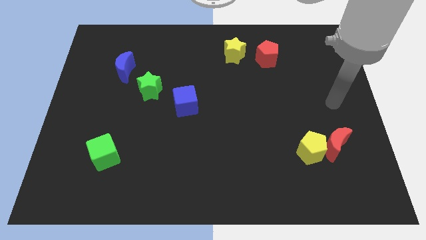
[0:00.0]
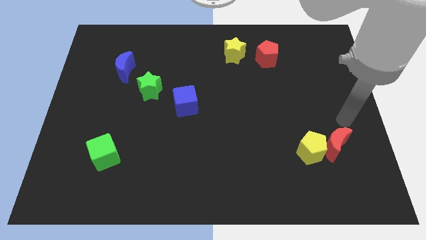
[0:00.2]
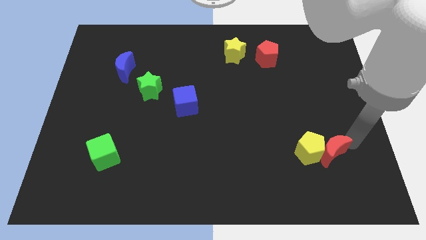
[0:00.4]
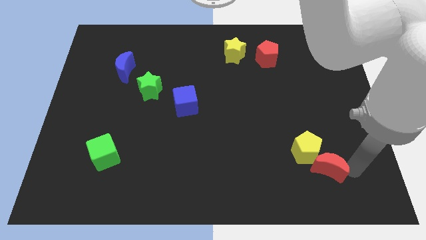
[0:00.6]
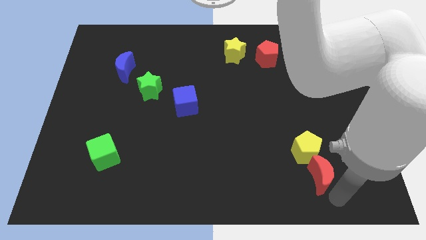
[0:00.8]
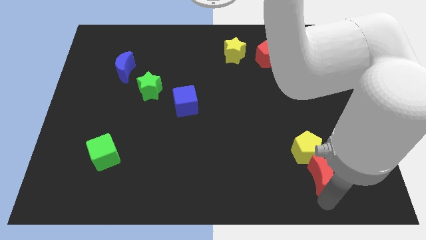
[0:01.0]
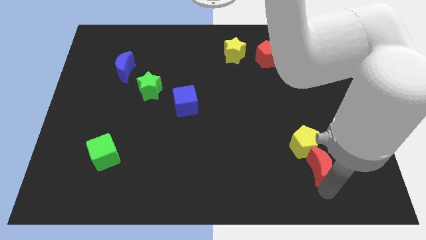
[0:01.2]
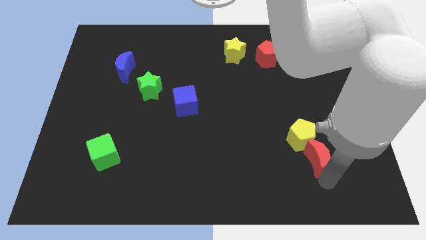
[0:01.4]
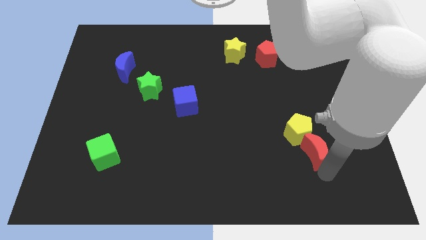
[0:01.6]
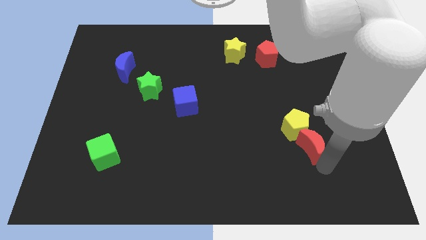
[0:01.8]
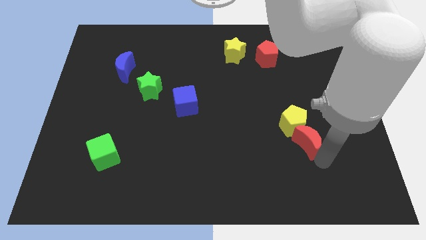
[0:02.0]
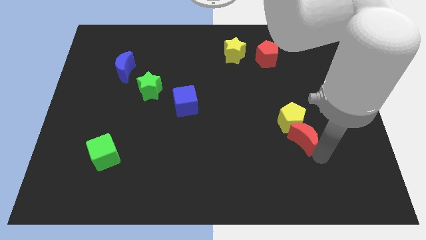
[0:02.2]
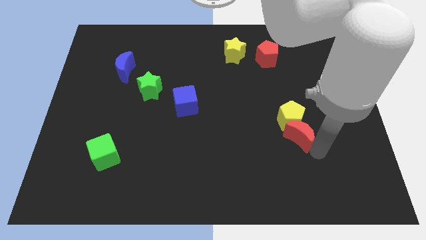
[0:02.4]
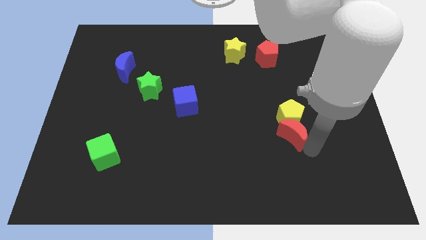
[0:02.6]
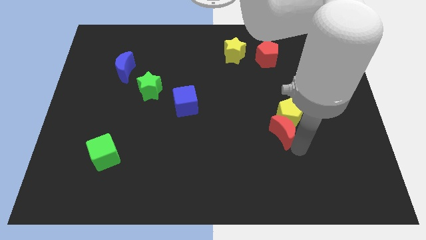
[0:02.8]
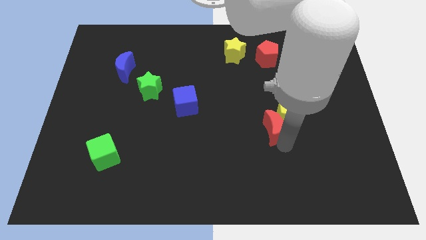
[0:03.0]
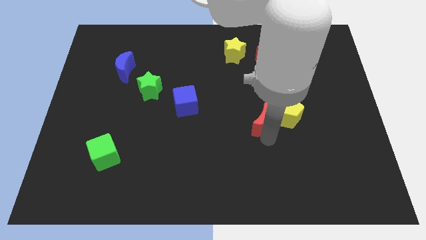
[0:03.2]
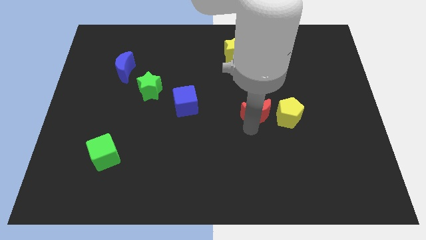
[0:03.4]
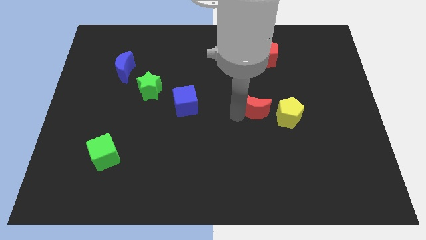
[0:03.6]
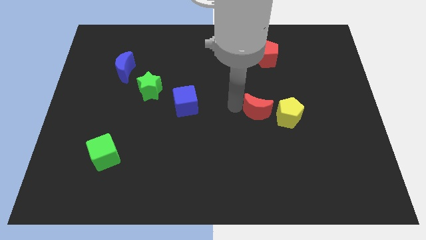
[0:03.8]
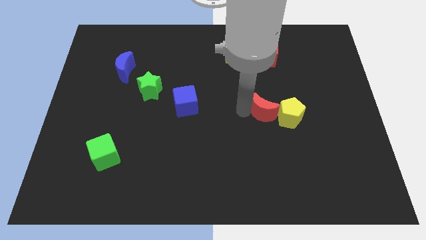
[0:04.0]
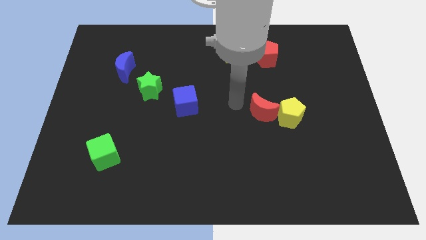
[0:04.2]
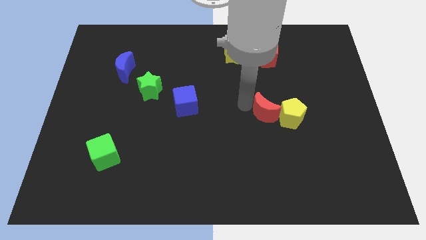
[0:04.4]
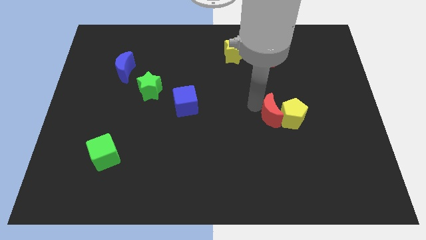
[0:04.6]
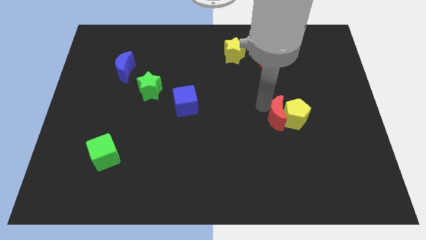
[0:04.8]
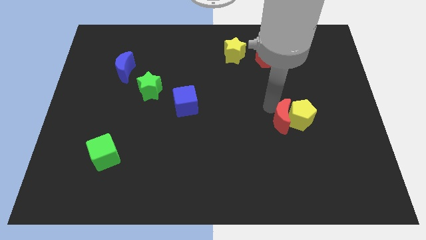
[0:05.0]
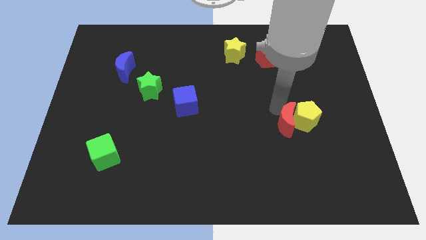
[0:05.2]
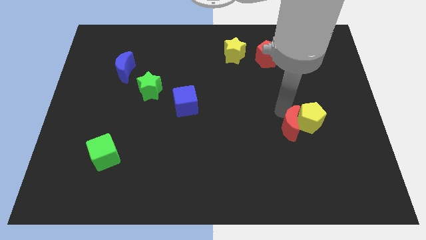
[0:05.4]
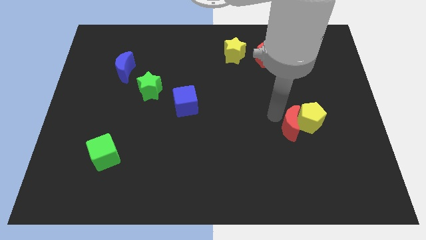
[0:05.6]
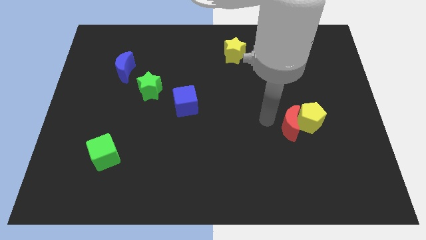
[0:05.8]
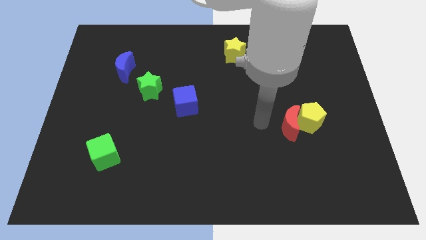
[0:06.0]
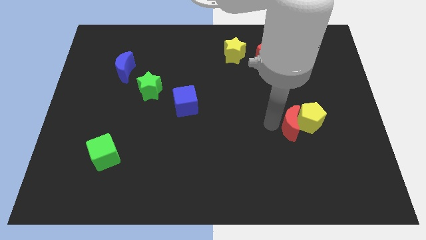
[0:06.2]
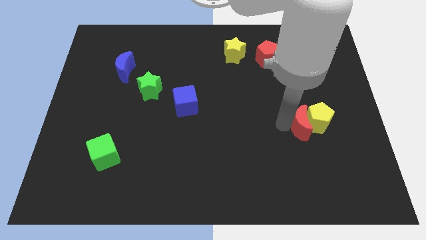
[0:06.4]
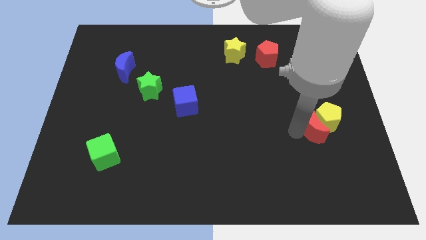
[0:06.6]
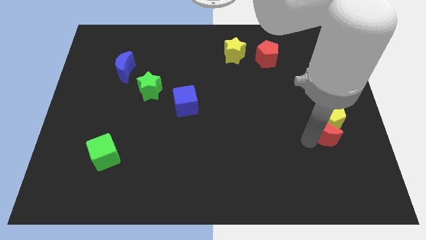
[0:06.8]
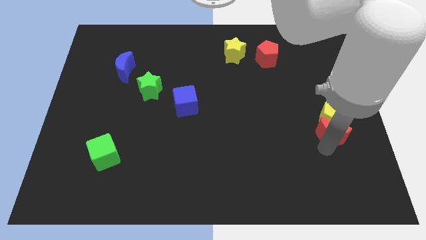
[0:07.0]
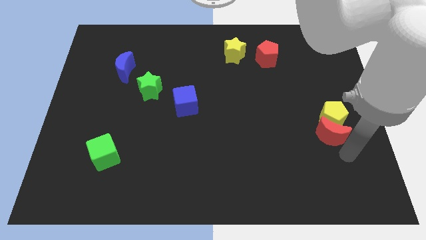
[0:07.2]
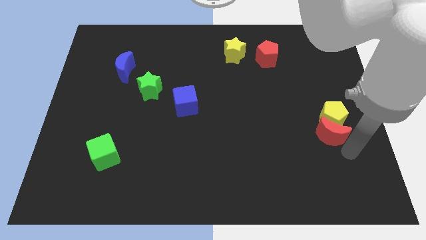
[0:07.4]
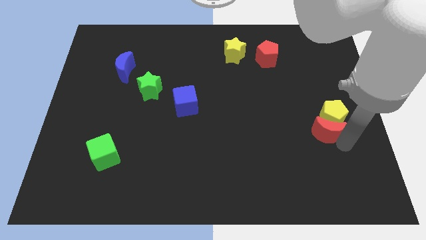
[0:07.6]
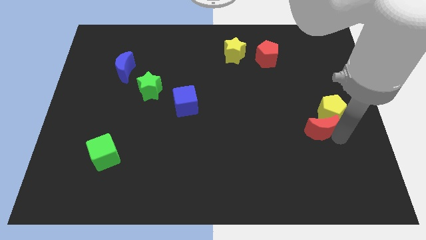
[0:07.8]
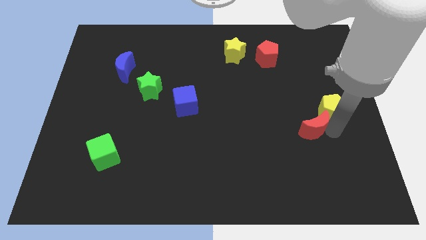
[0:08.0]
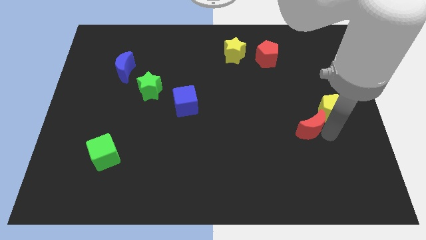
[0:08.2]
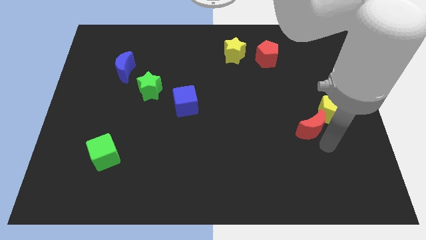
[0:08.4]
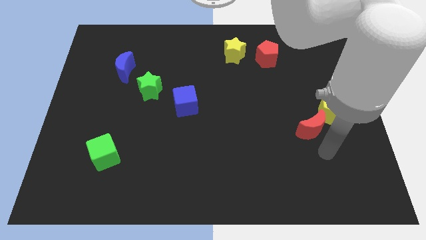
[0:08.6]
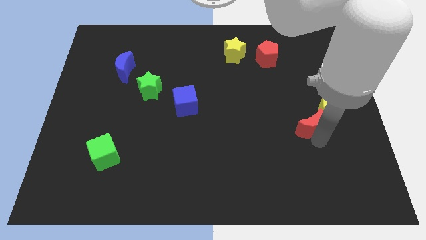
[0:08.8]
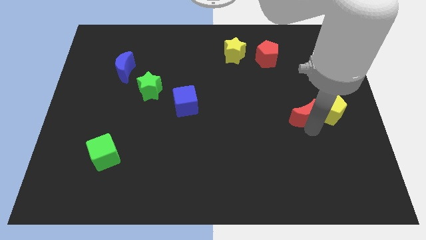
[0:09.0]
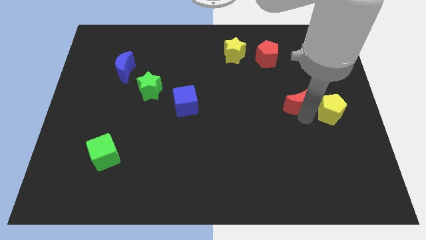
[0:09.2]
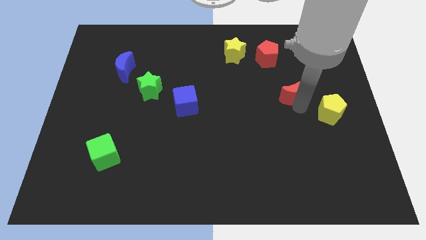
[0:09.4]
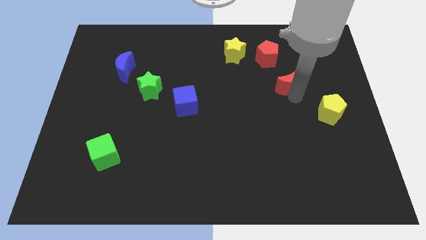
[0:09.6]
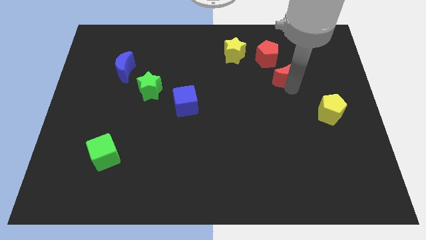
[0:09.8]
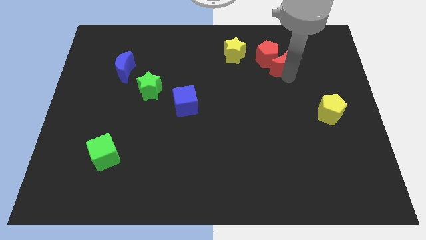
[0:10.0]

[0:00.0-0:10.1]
slide the red moon next to the red pentagon

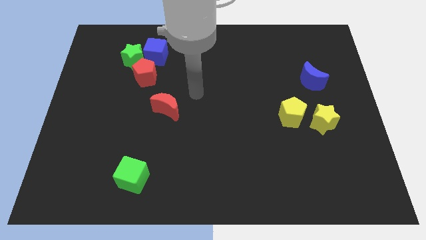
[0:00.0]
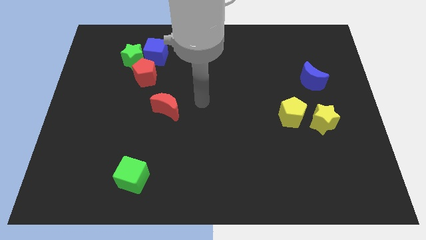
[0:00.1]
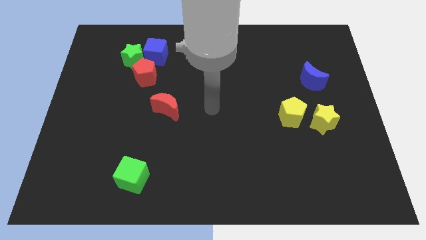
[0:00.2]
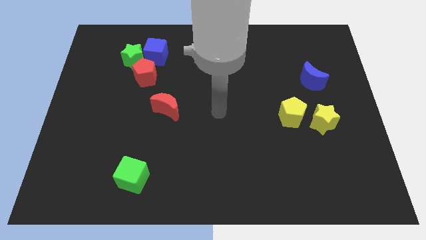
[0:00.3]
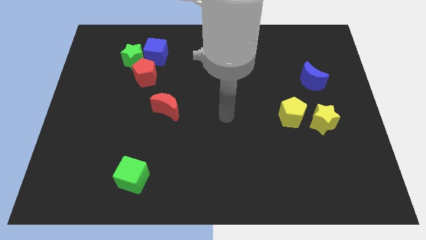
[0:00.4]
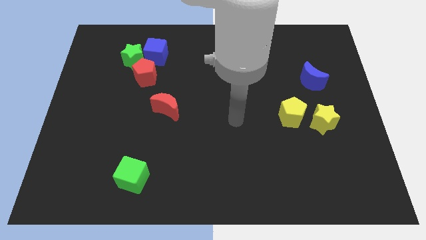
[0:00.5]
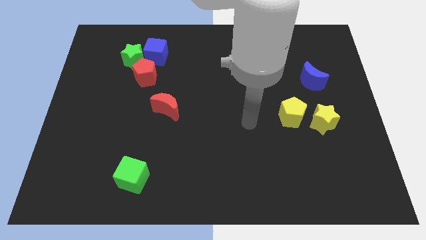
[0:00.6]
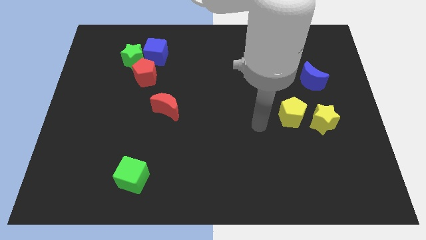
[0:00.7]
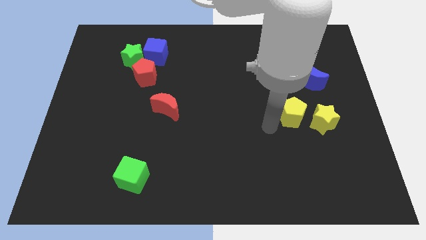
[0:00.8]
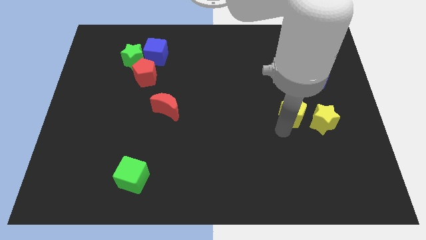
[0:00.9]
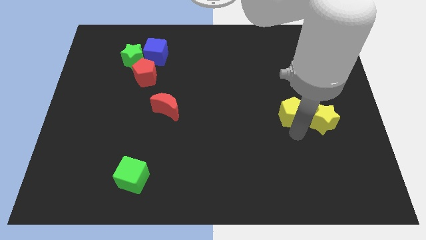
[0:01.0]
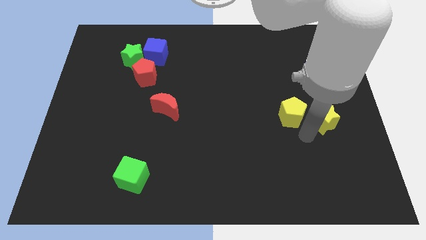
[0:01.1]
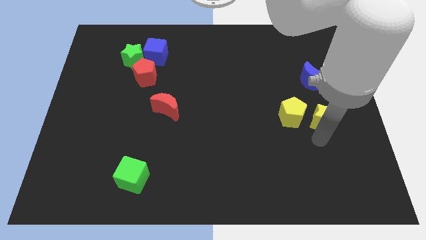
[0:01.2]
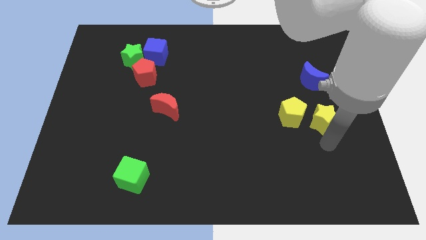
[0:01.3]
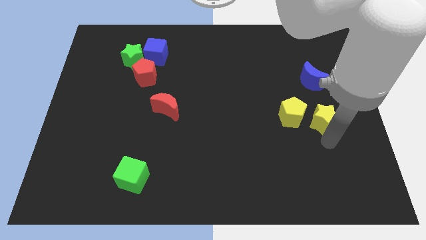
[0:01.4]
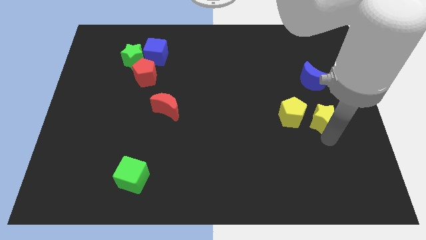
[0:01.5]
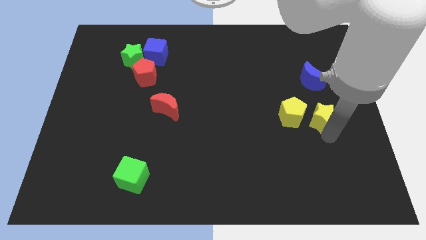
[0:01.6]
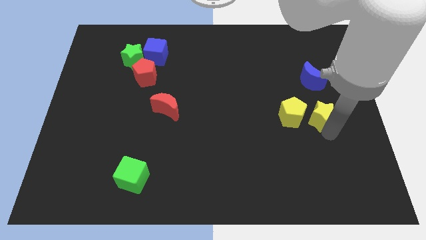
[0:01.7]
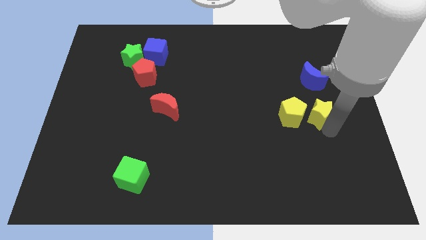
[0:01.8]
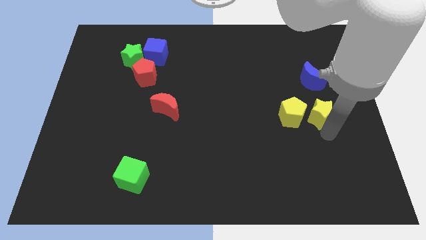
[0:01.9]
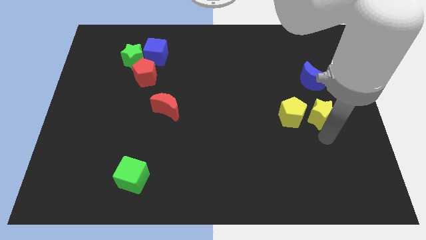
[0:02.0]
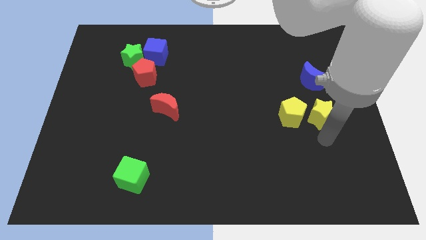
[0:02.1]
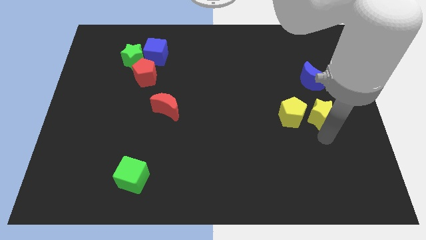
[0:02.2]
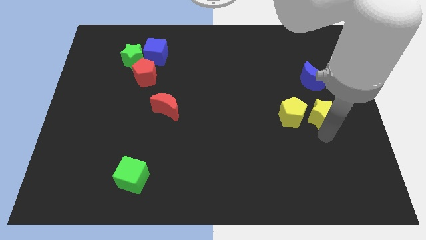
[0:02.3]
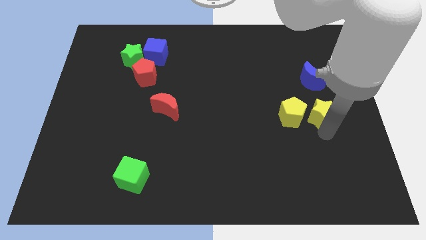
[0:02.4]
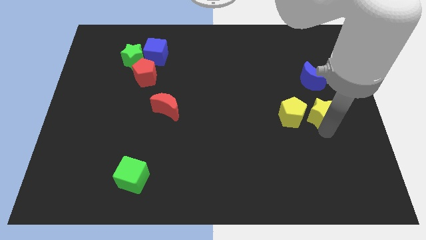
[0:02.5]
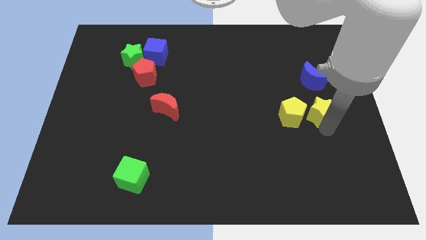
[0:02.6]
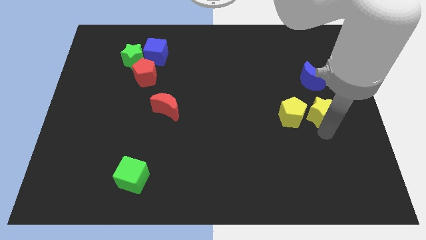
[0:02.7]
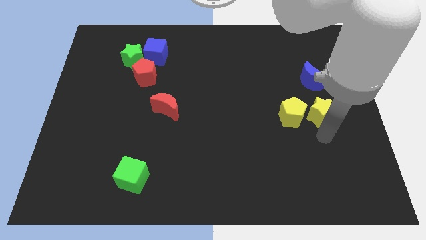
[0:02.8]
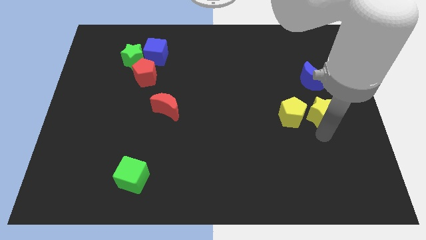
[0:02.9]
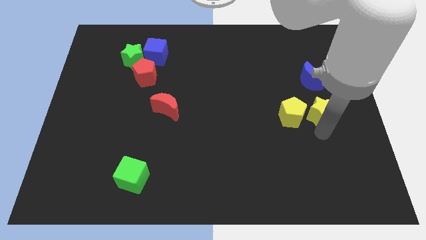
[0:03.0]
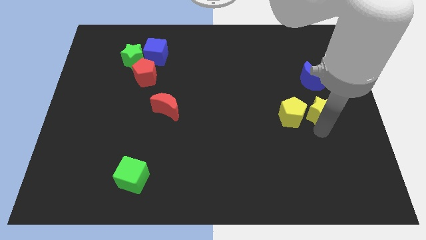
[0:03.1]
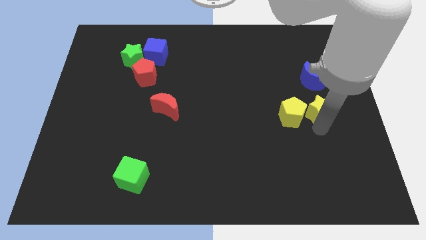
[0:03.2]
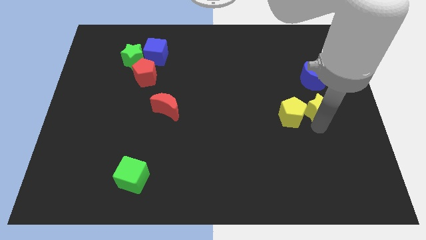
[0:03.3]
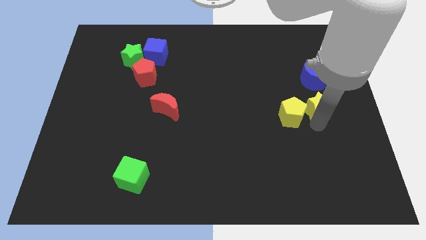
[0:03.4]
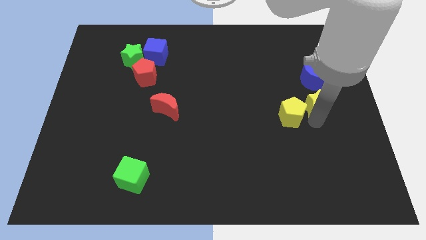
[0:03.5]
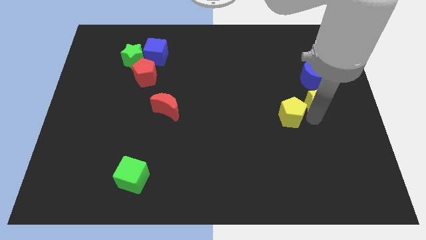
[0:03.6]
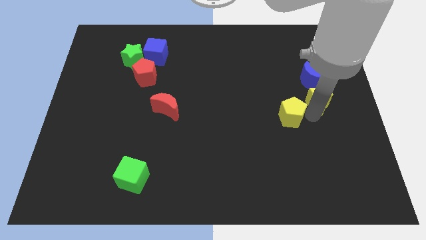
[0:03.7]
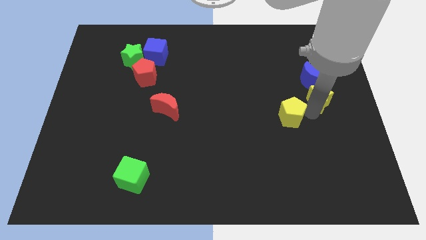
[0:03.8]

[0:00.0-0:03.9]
push the yellow star towards the blue moon
